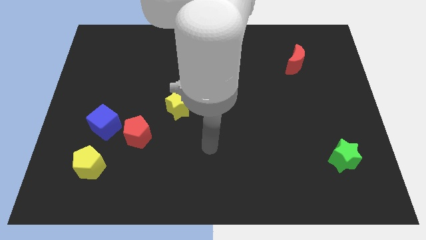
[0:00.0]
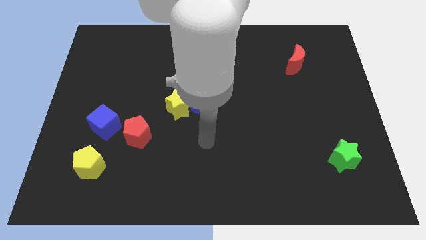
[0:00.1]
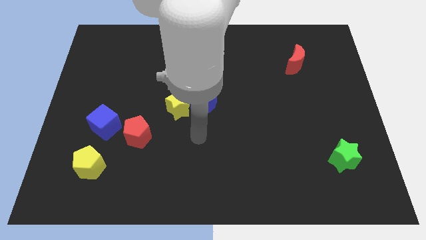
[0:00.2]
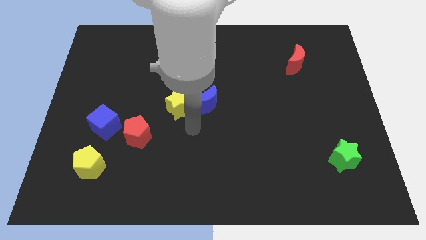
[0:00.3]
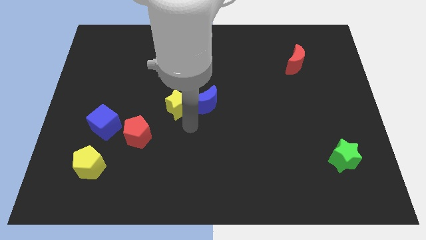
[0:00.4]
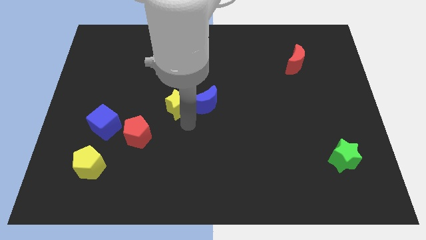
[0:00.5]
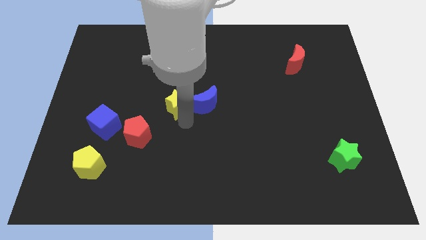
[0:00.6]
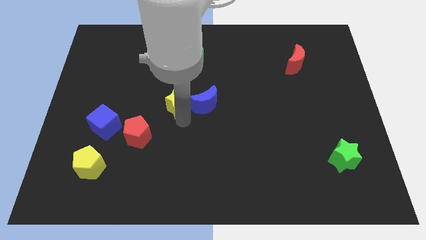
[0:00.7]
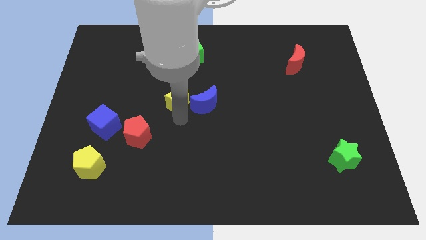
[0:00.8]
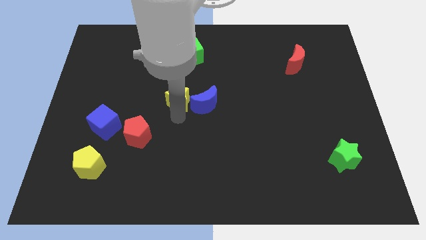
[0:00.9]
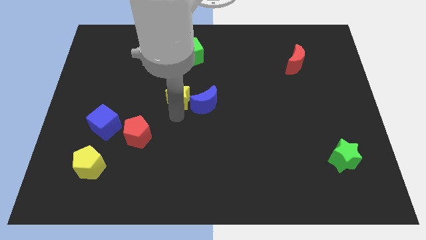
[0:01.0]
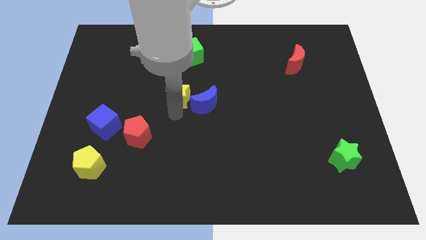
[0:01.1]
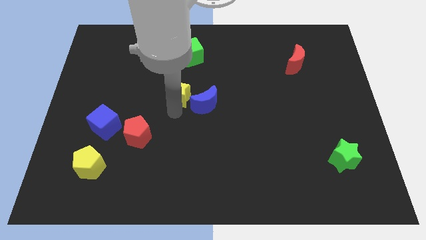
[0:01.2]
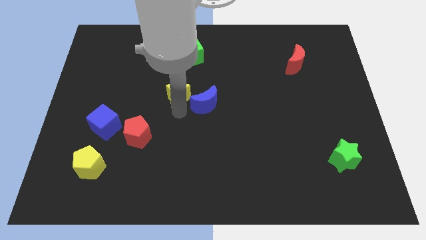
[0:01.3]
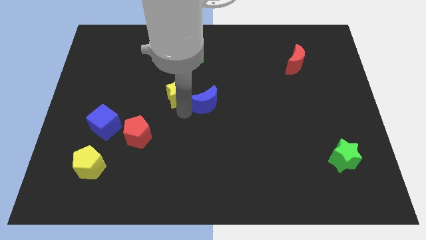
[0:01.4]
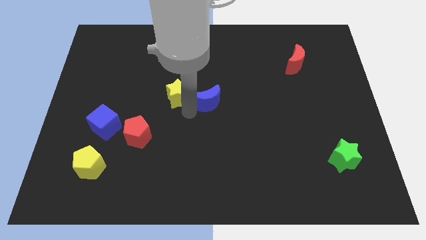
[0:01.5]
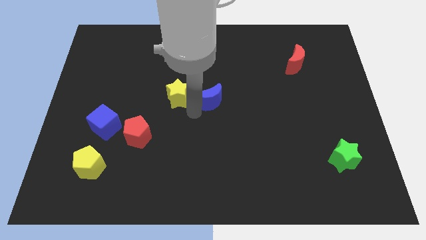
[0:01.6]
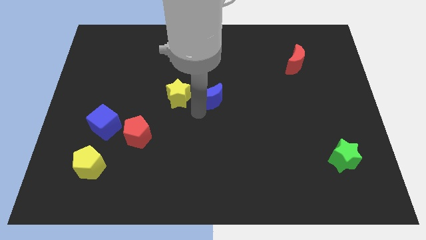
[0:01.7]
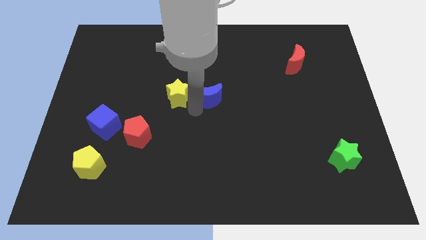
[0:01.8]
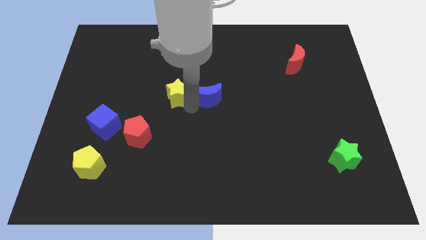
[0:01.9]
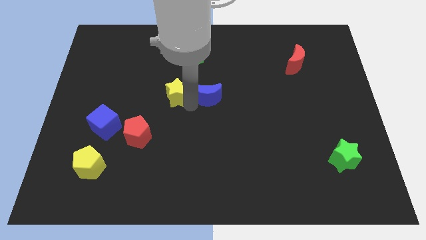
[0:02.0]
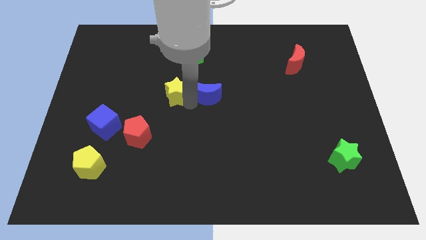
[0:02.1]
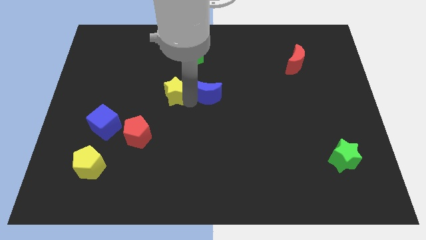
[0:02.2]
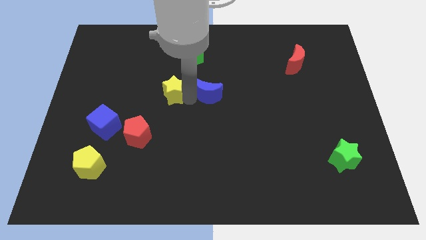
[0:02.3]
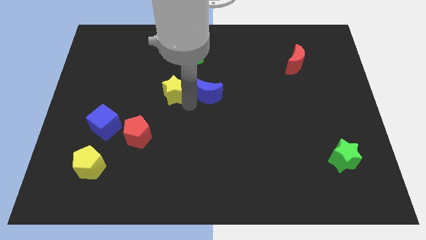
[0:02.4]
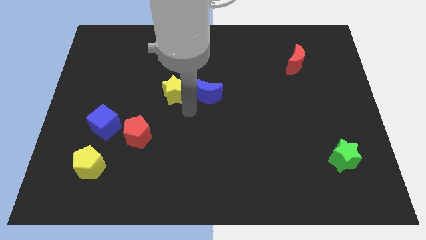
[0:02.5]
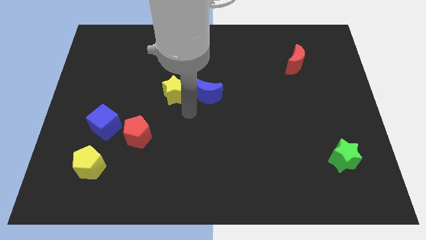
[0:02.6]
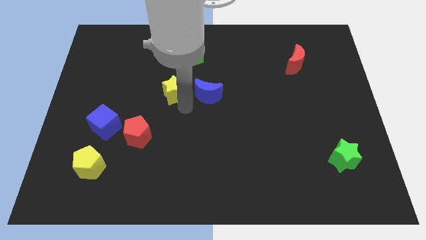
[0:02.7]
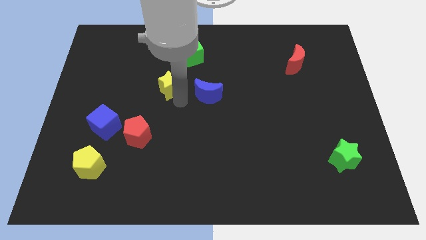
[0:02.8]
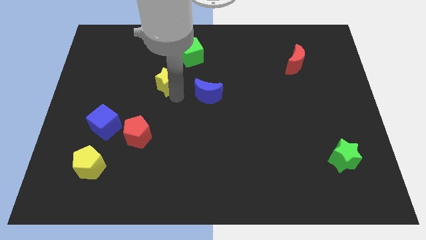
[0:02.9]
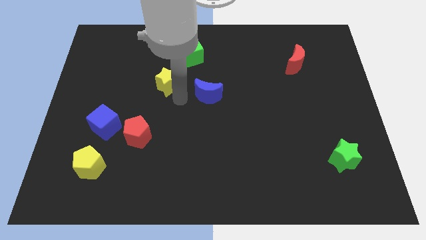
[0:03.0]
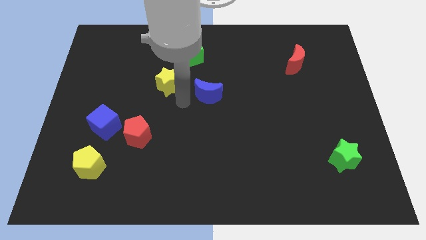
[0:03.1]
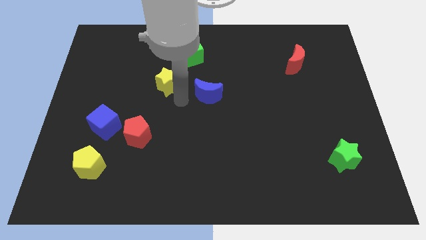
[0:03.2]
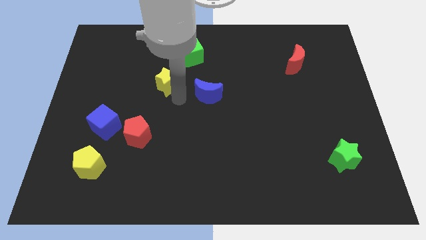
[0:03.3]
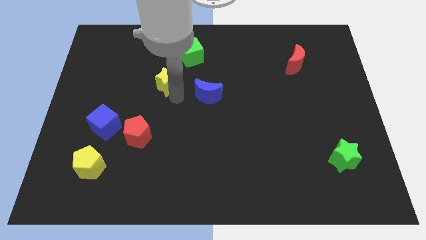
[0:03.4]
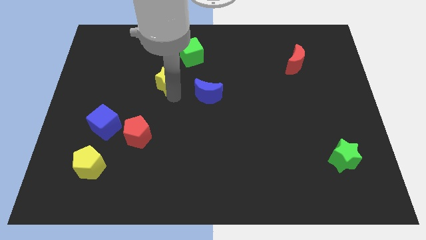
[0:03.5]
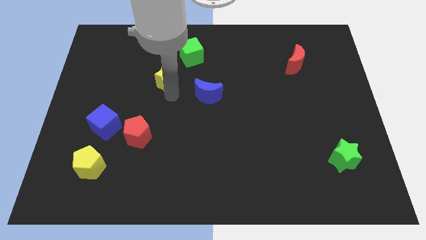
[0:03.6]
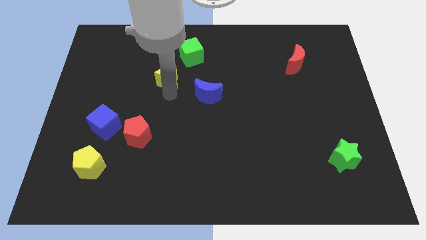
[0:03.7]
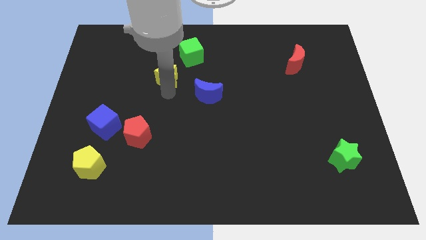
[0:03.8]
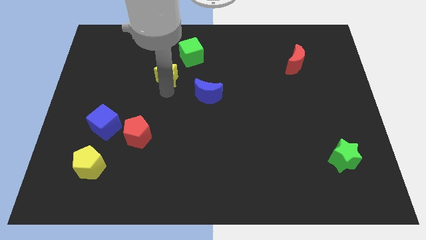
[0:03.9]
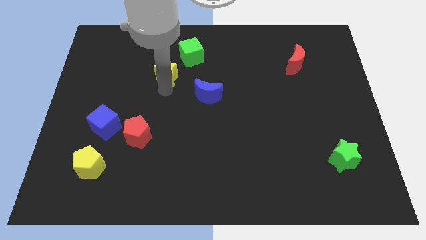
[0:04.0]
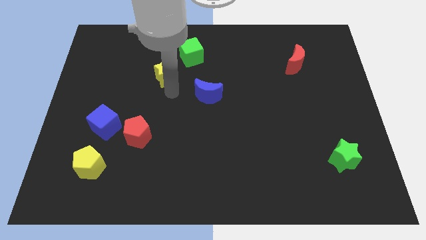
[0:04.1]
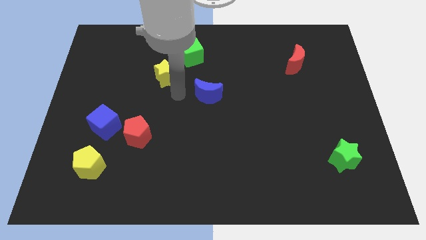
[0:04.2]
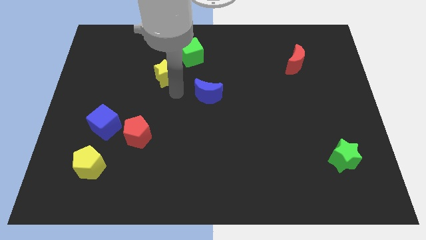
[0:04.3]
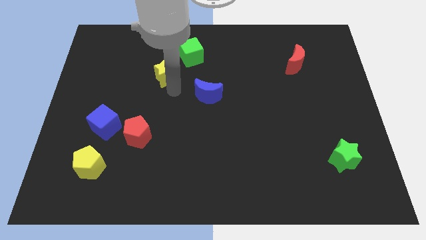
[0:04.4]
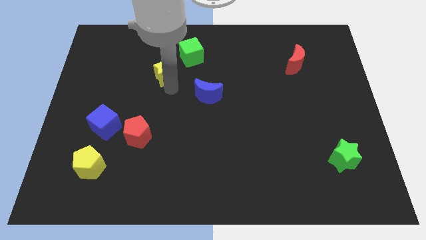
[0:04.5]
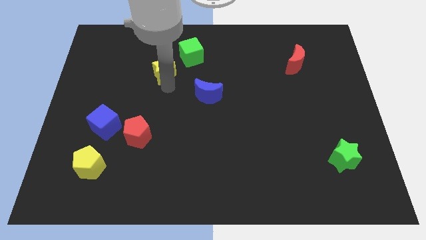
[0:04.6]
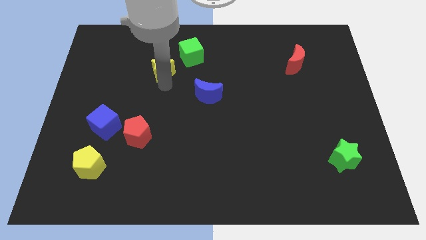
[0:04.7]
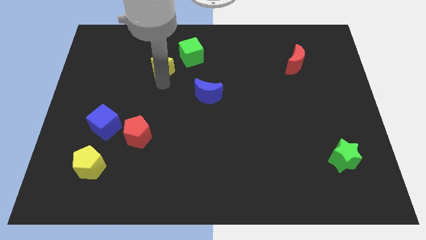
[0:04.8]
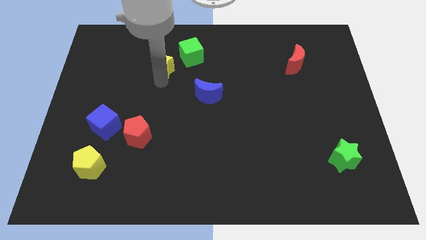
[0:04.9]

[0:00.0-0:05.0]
push the yellow star left of the green cube
